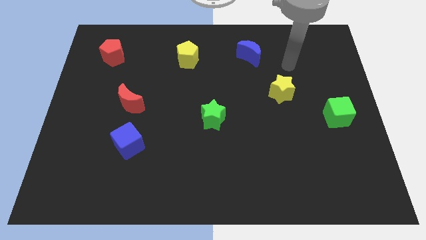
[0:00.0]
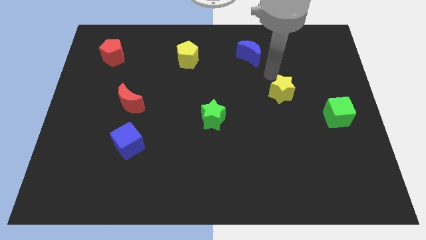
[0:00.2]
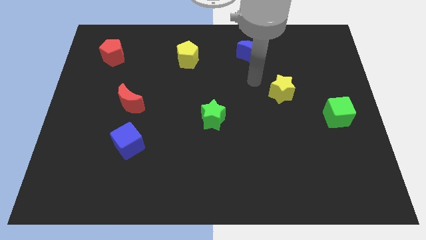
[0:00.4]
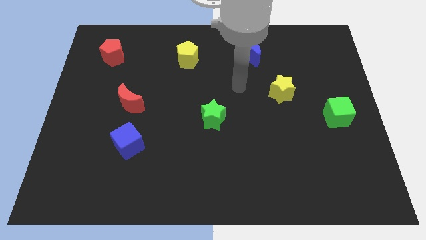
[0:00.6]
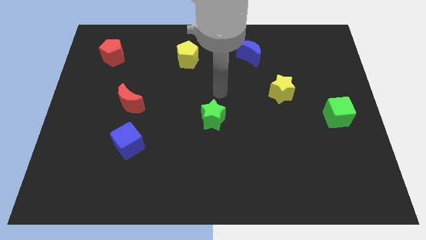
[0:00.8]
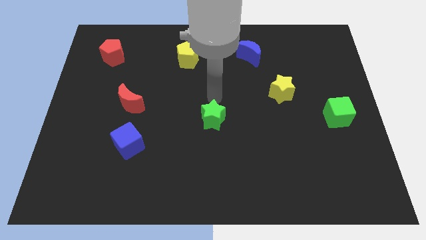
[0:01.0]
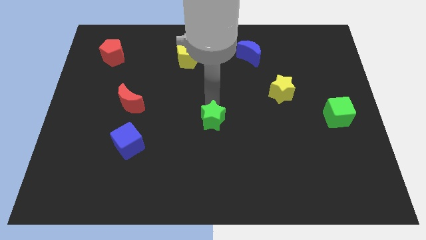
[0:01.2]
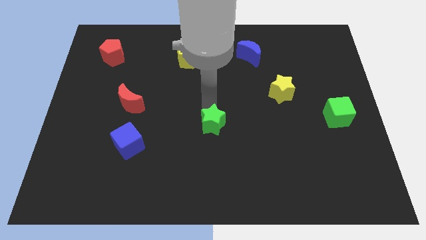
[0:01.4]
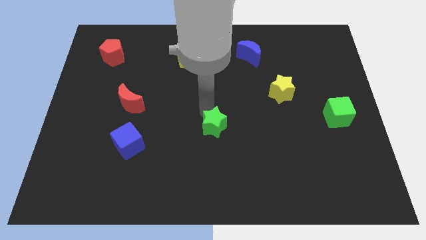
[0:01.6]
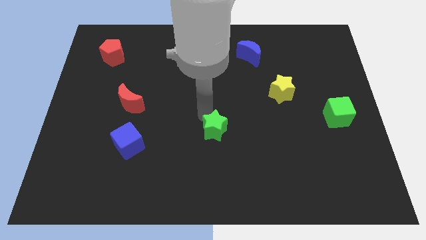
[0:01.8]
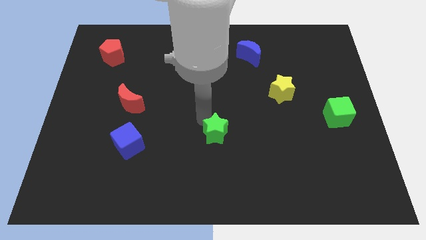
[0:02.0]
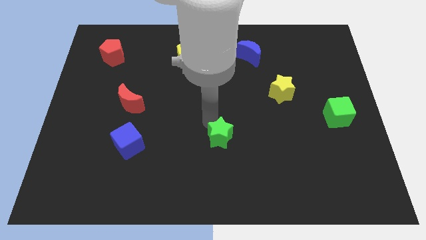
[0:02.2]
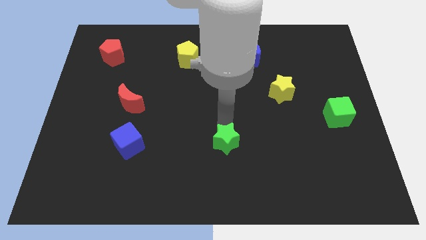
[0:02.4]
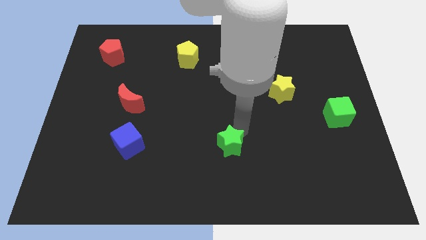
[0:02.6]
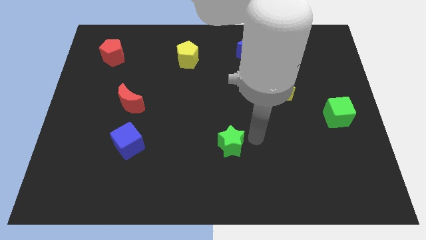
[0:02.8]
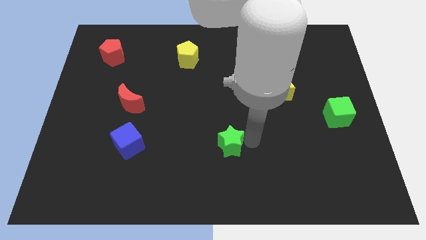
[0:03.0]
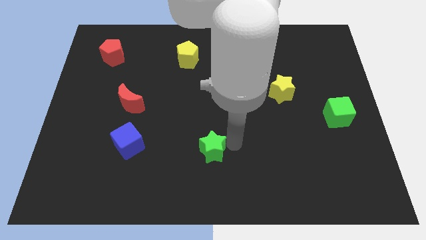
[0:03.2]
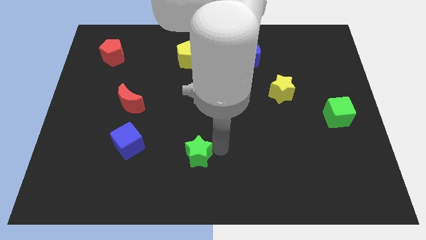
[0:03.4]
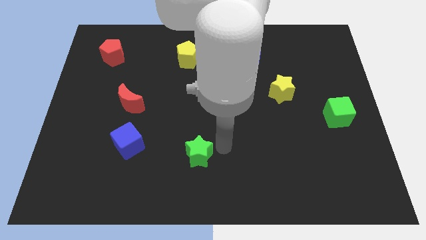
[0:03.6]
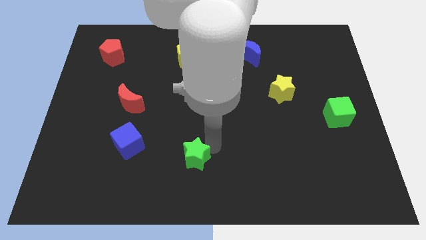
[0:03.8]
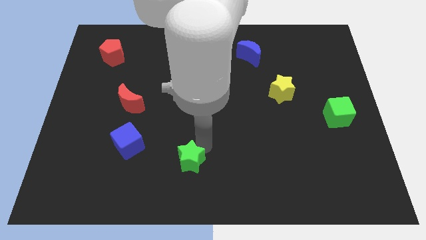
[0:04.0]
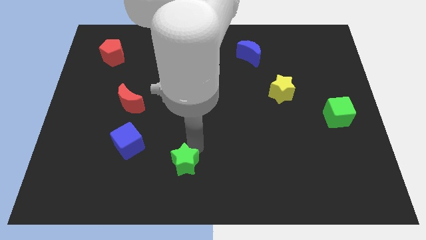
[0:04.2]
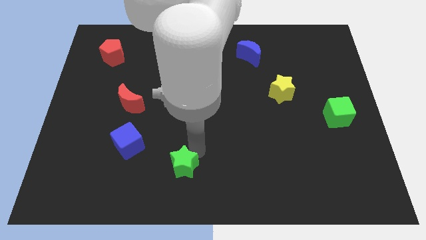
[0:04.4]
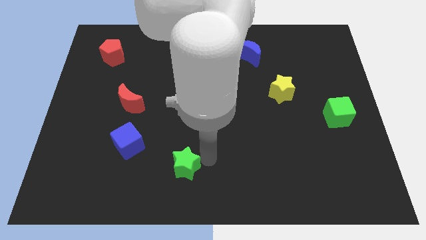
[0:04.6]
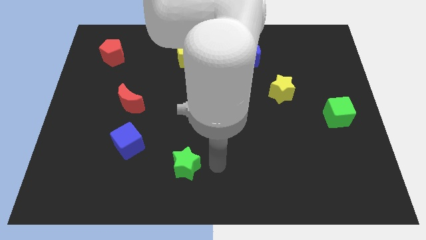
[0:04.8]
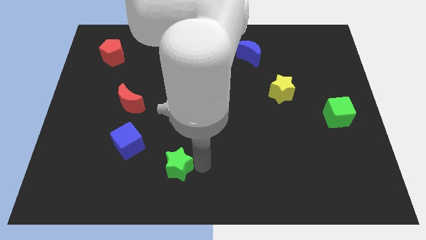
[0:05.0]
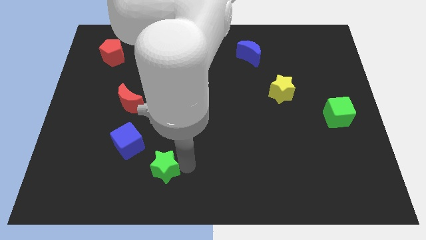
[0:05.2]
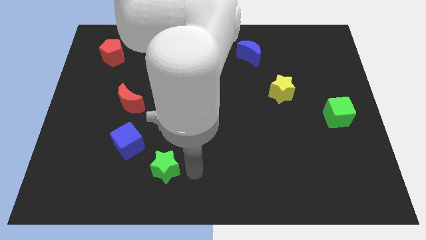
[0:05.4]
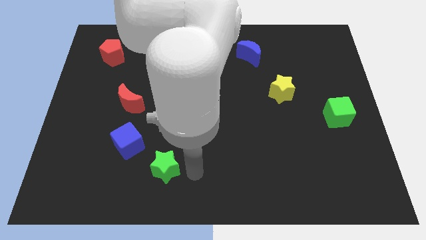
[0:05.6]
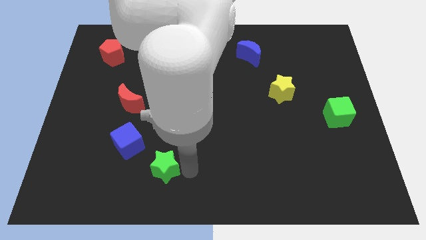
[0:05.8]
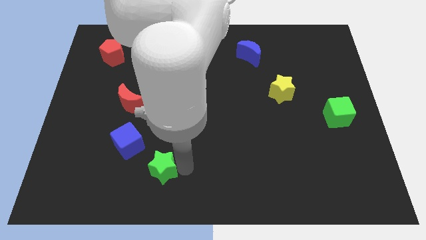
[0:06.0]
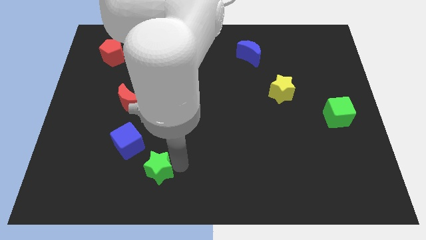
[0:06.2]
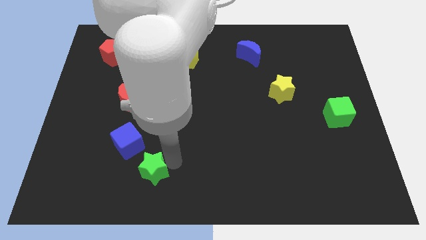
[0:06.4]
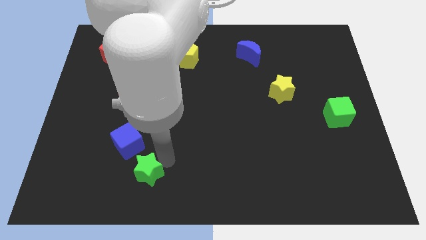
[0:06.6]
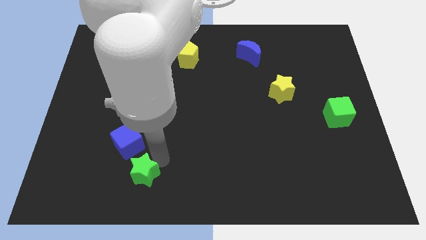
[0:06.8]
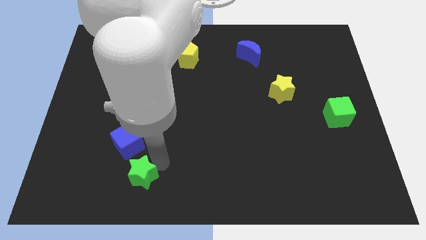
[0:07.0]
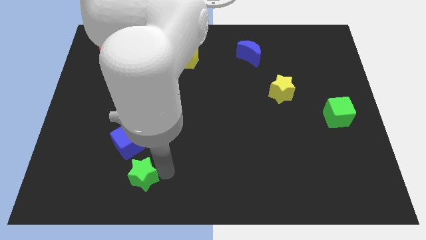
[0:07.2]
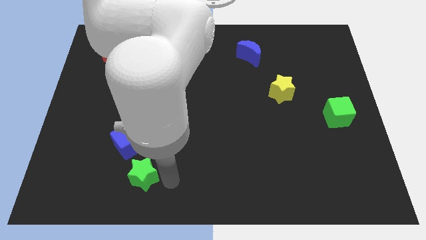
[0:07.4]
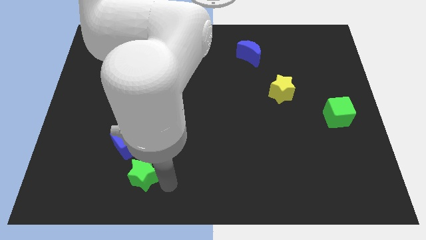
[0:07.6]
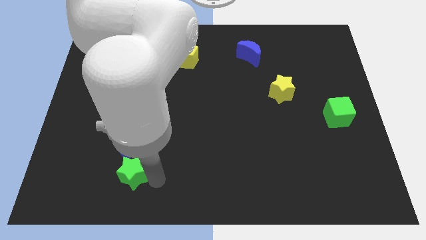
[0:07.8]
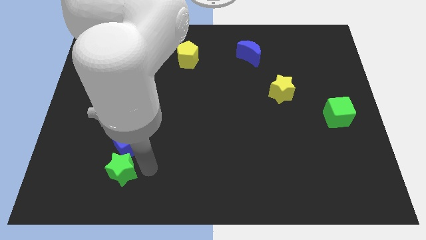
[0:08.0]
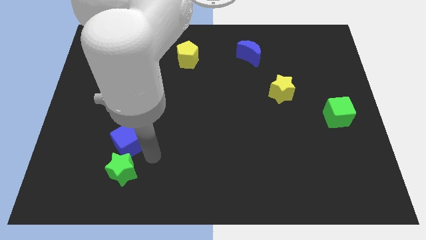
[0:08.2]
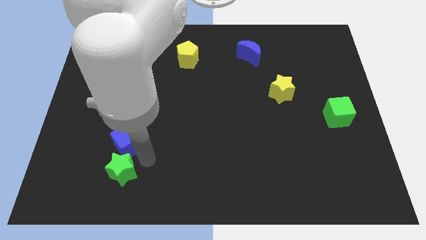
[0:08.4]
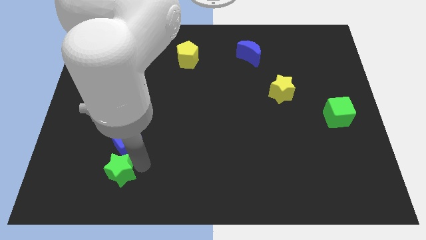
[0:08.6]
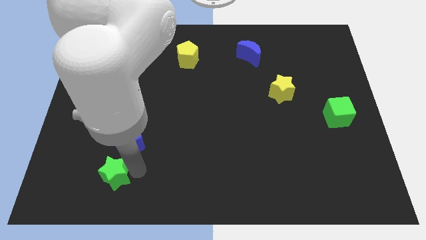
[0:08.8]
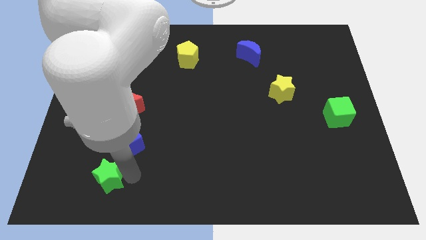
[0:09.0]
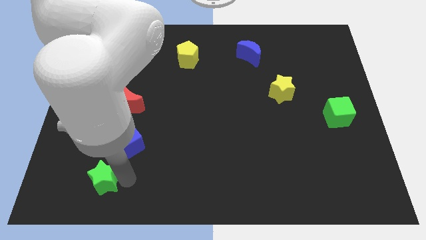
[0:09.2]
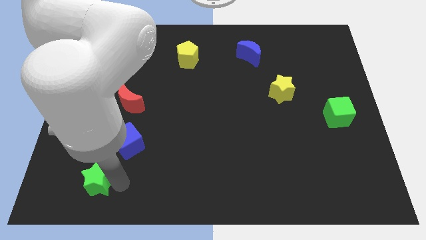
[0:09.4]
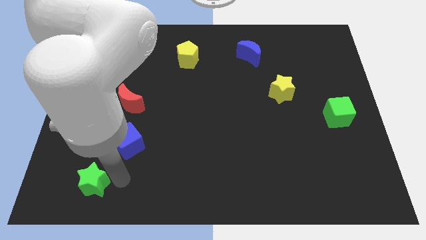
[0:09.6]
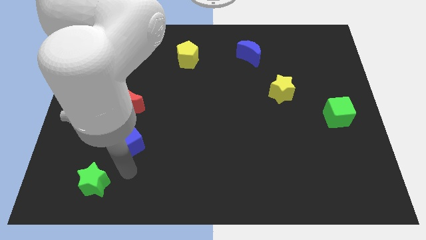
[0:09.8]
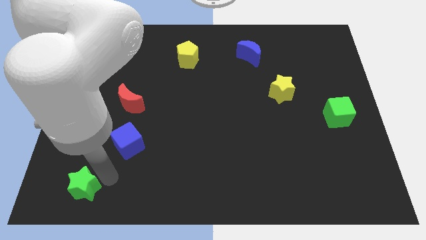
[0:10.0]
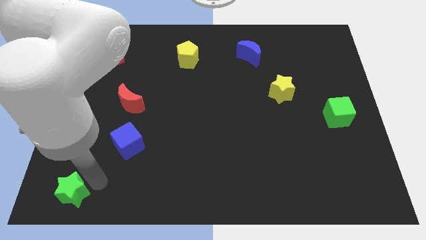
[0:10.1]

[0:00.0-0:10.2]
move the green star to the lower left corner

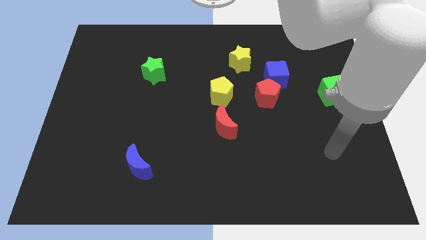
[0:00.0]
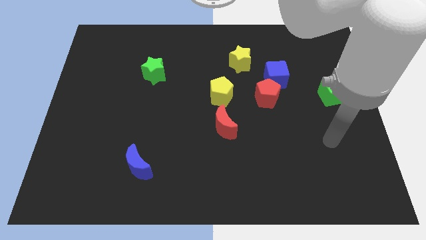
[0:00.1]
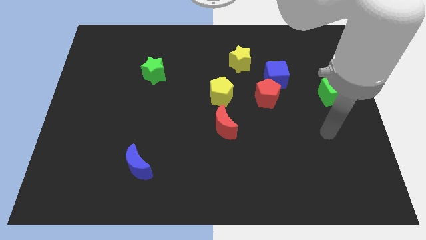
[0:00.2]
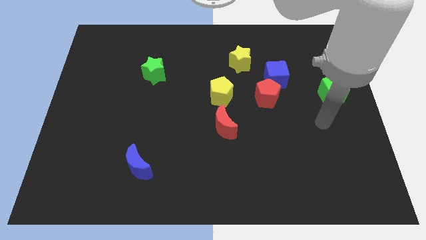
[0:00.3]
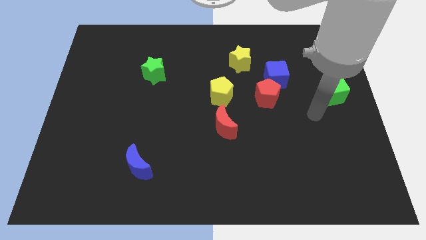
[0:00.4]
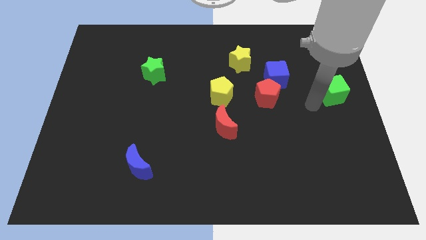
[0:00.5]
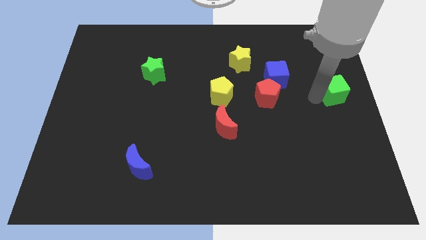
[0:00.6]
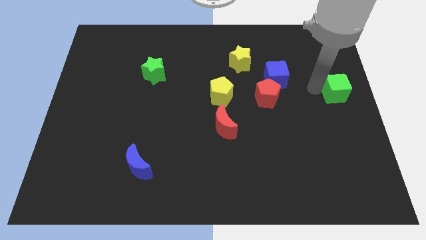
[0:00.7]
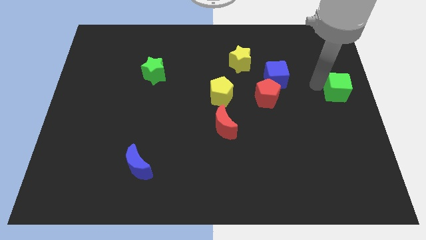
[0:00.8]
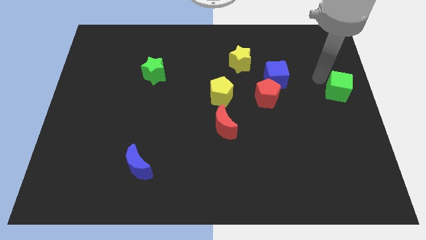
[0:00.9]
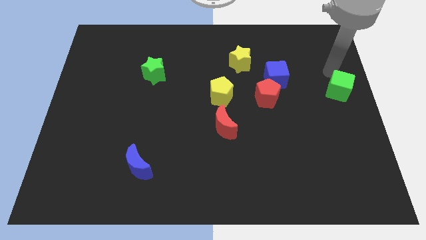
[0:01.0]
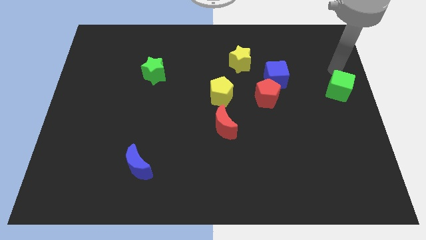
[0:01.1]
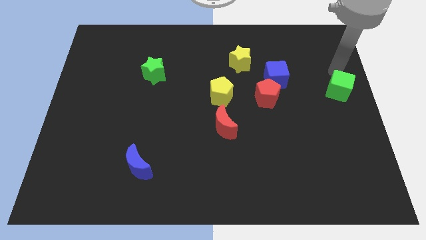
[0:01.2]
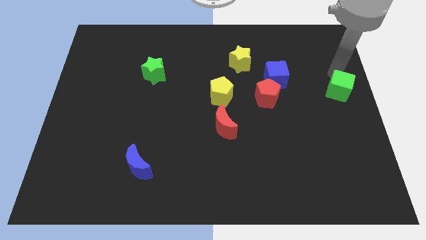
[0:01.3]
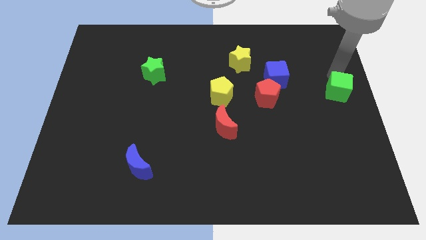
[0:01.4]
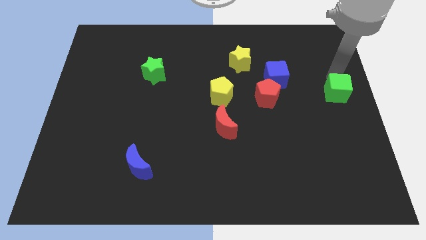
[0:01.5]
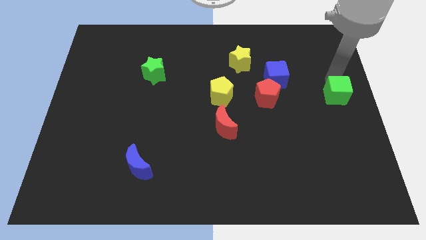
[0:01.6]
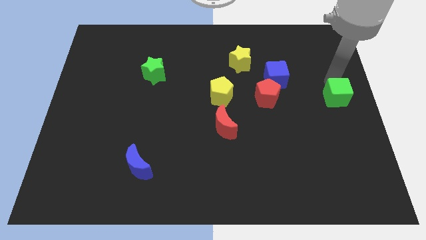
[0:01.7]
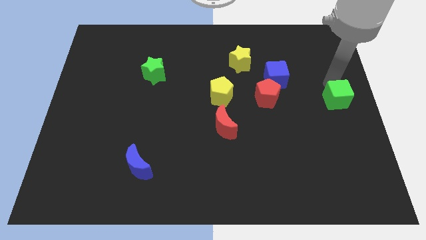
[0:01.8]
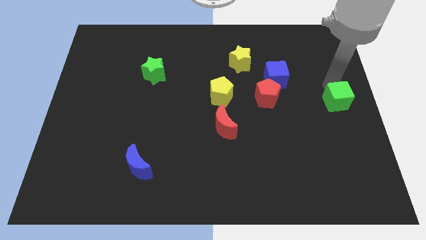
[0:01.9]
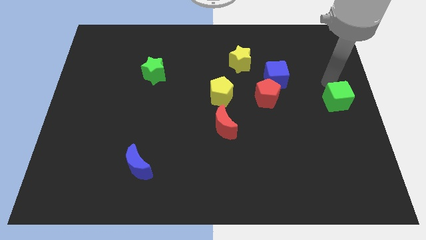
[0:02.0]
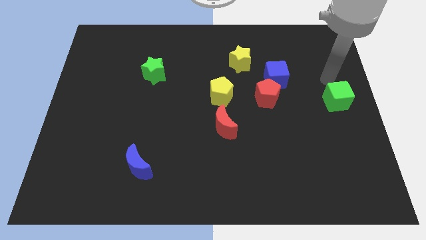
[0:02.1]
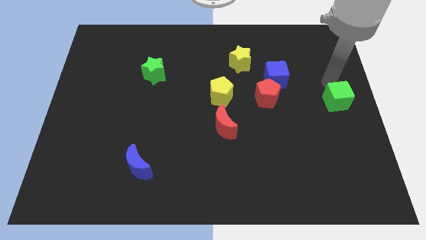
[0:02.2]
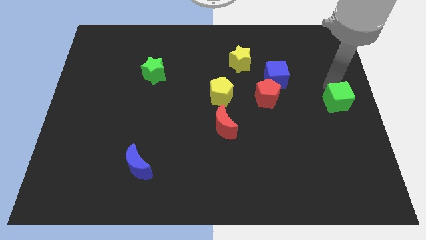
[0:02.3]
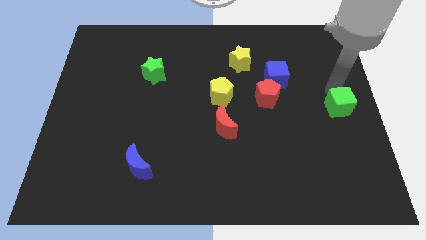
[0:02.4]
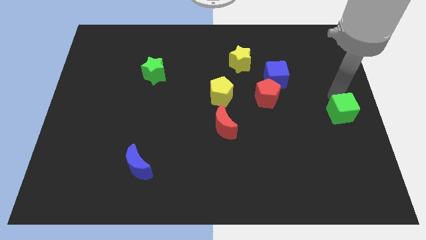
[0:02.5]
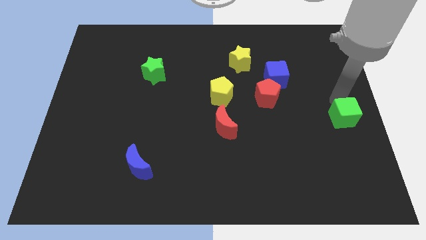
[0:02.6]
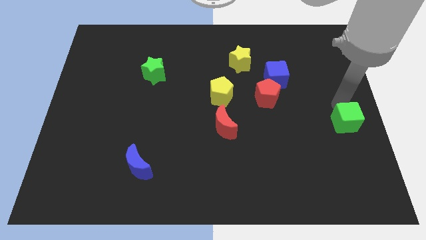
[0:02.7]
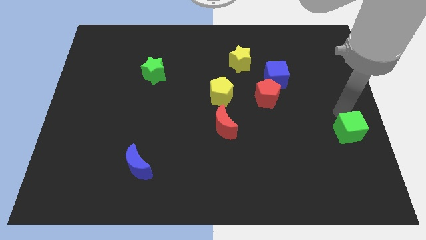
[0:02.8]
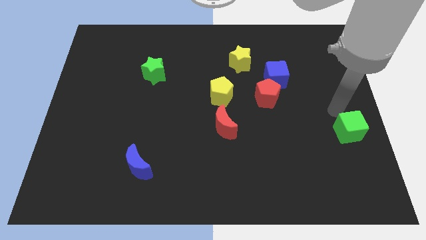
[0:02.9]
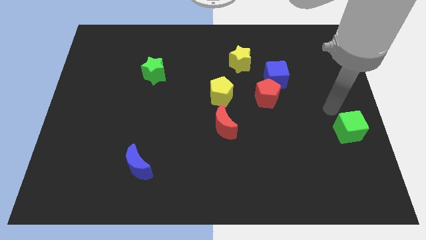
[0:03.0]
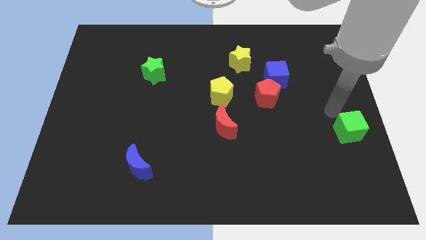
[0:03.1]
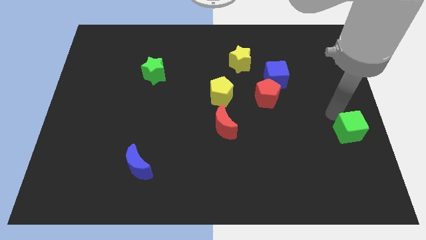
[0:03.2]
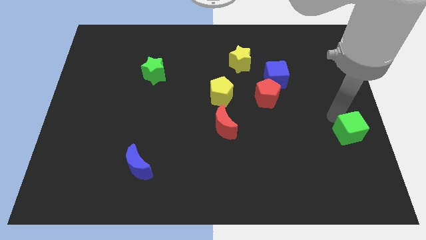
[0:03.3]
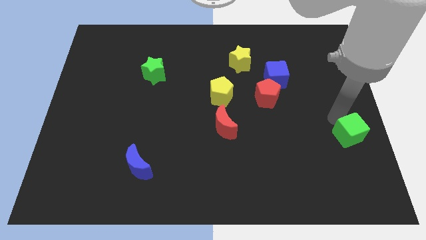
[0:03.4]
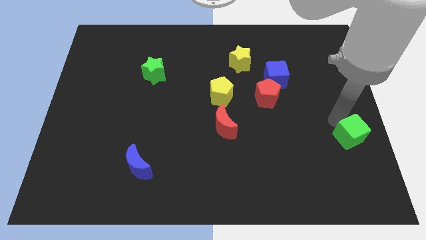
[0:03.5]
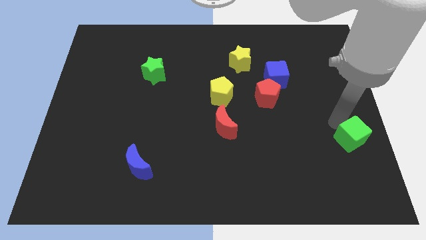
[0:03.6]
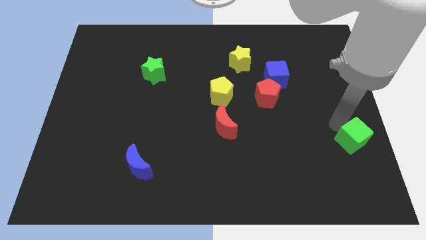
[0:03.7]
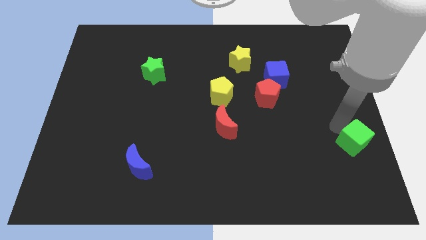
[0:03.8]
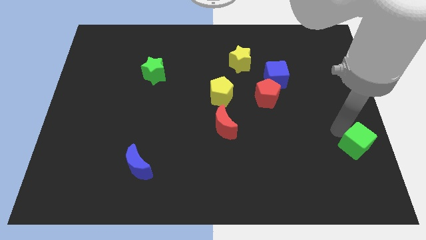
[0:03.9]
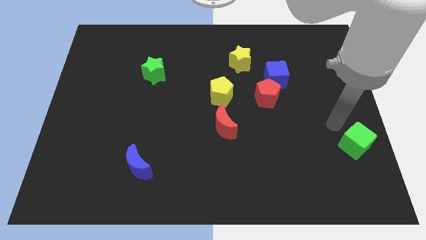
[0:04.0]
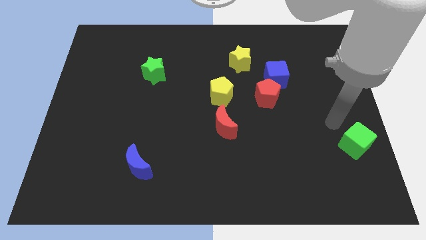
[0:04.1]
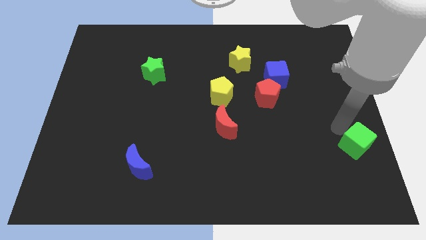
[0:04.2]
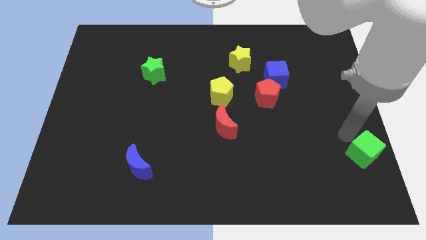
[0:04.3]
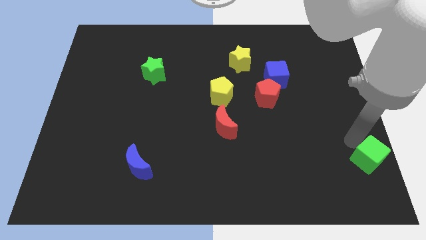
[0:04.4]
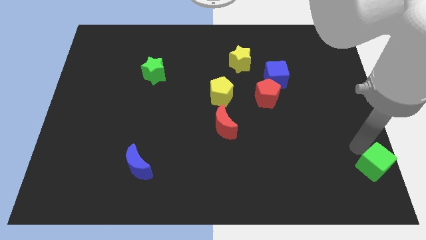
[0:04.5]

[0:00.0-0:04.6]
move the green cube to the lower right corner
